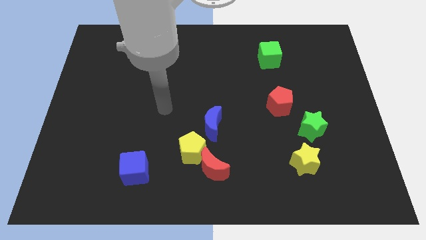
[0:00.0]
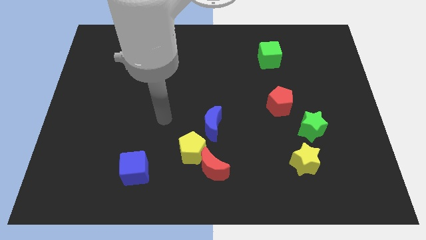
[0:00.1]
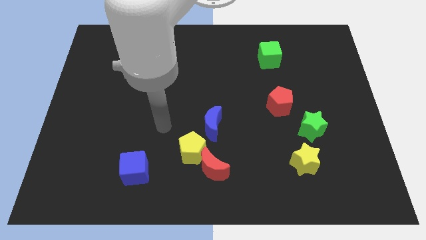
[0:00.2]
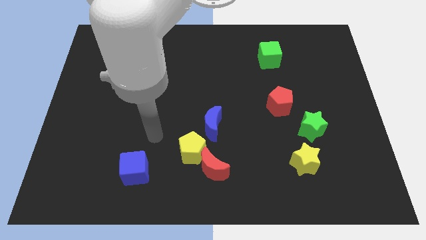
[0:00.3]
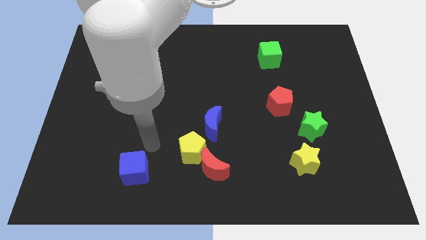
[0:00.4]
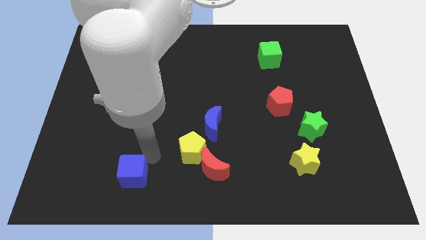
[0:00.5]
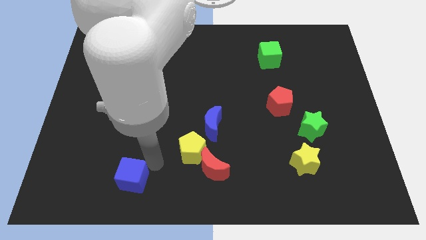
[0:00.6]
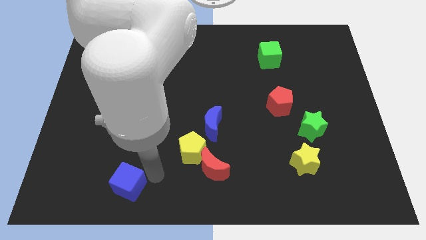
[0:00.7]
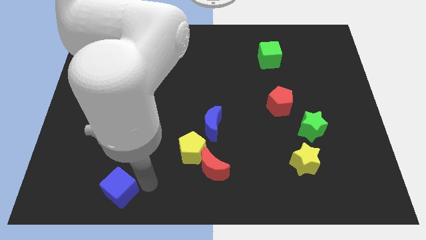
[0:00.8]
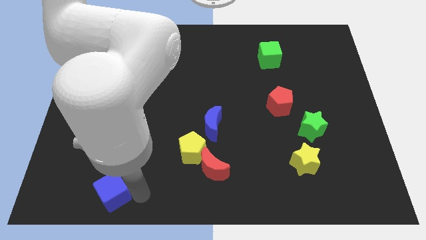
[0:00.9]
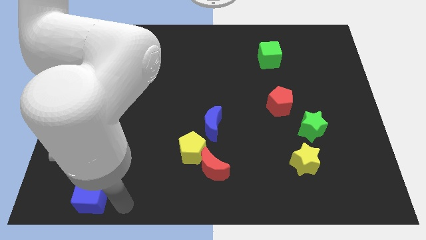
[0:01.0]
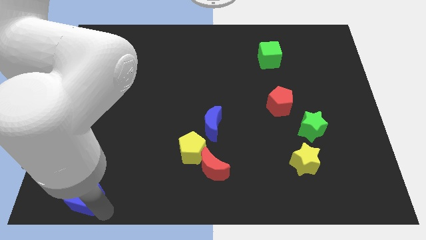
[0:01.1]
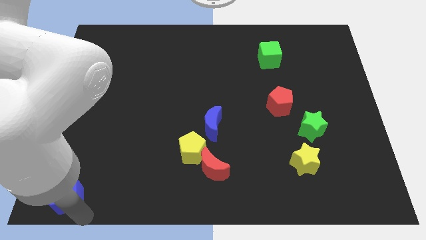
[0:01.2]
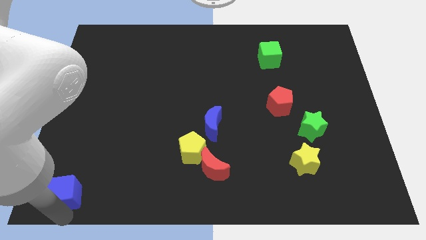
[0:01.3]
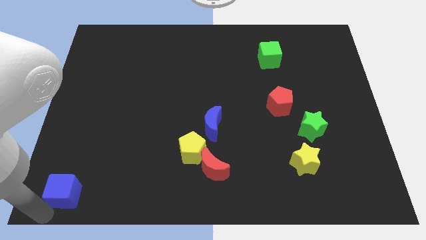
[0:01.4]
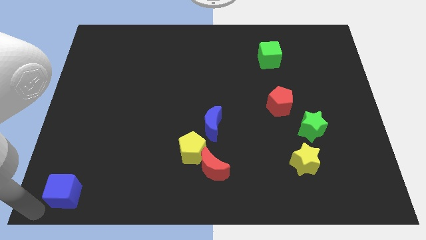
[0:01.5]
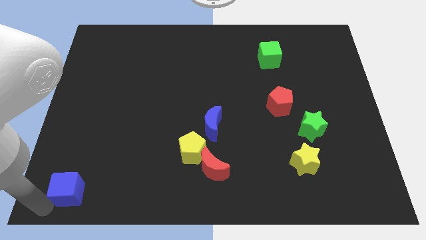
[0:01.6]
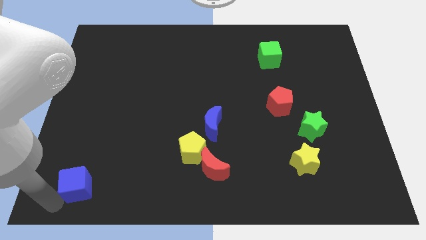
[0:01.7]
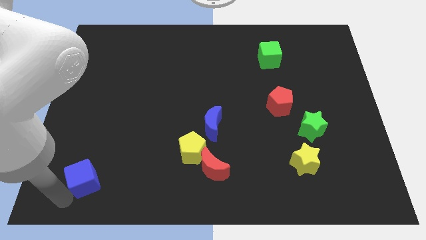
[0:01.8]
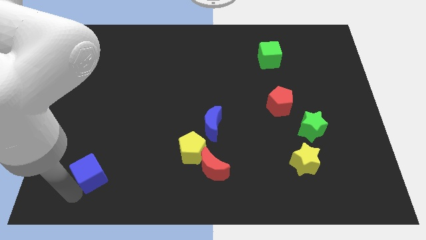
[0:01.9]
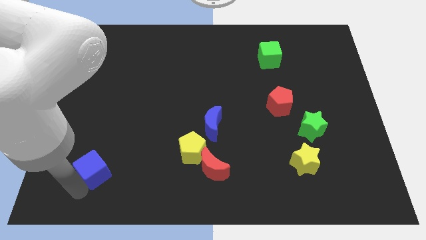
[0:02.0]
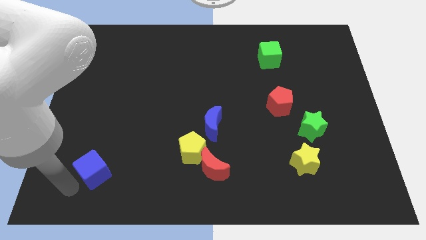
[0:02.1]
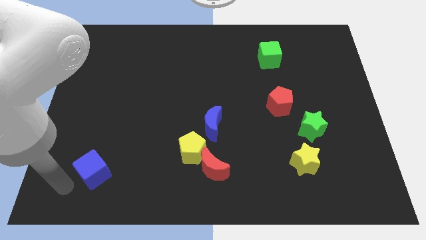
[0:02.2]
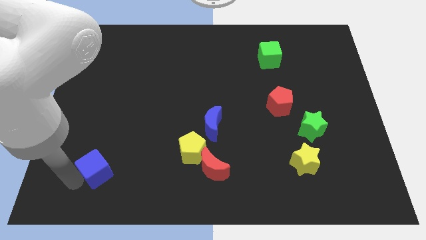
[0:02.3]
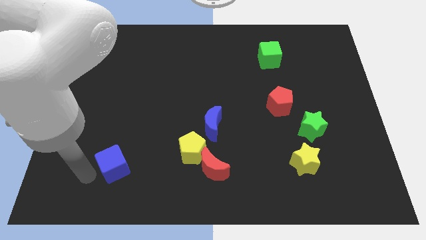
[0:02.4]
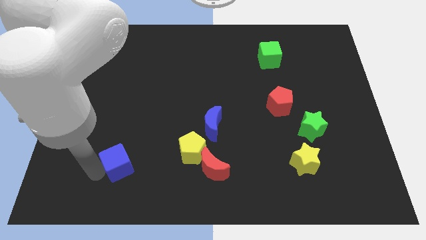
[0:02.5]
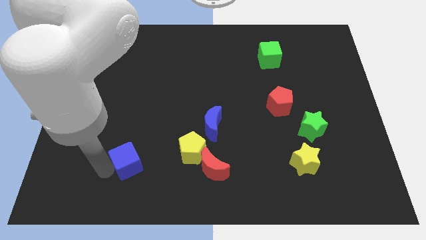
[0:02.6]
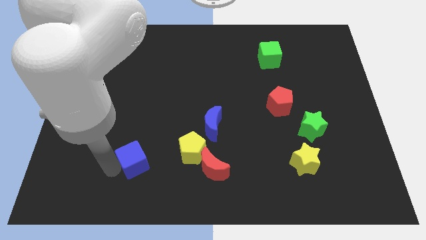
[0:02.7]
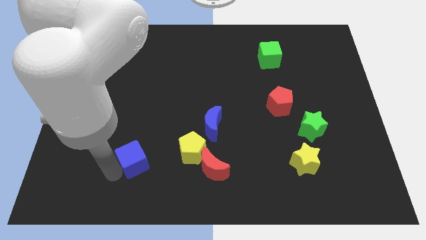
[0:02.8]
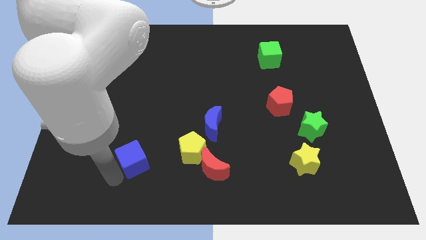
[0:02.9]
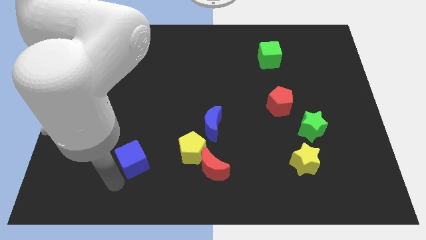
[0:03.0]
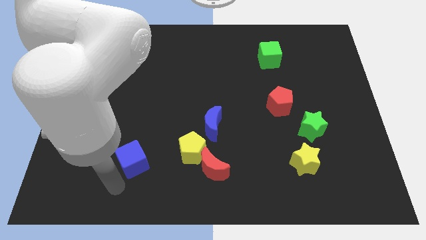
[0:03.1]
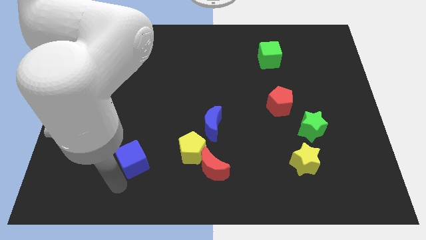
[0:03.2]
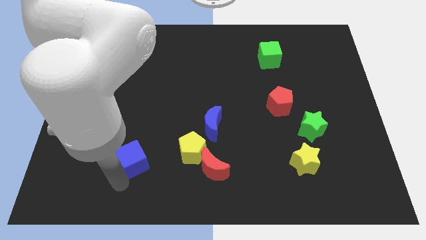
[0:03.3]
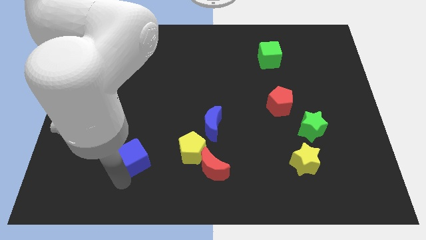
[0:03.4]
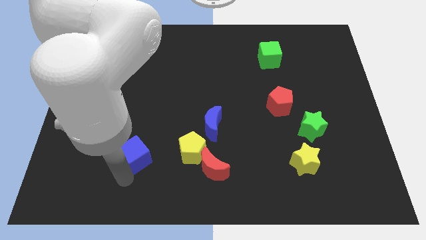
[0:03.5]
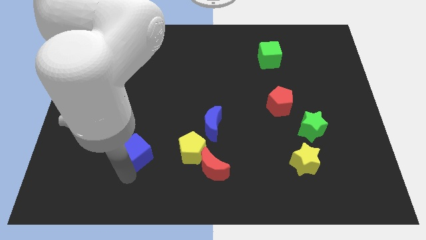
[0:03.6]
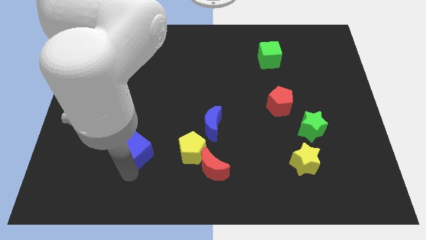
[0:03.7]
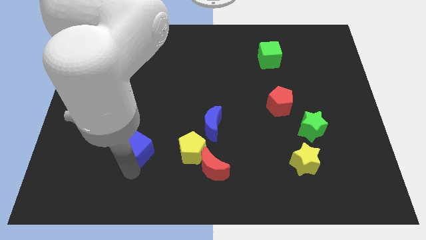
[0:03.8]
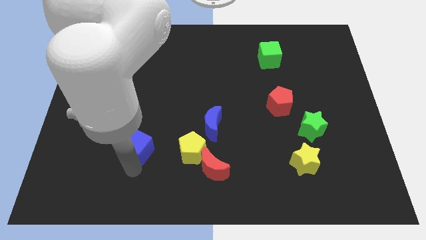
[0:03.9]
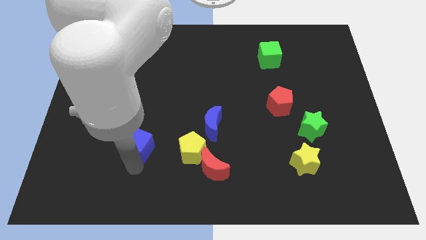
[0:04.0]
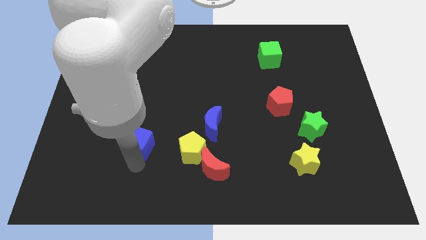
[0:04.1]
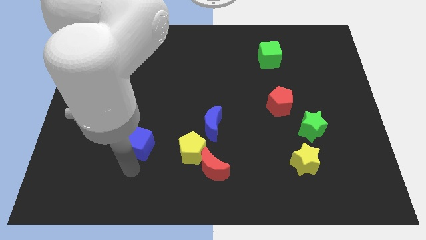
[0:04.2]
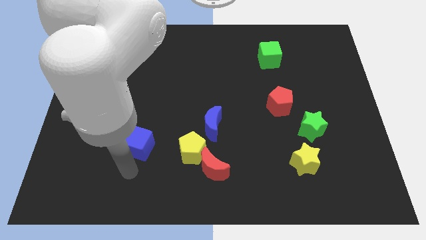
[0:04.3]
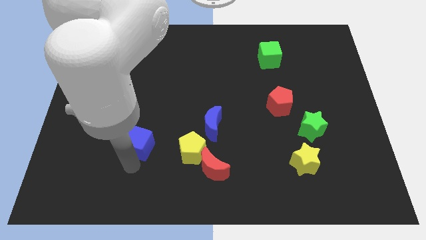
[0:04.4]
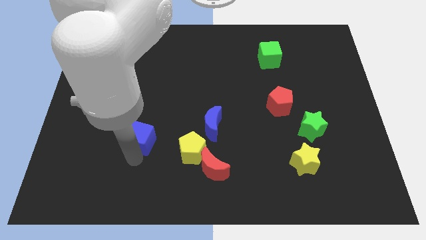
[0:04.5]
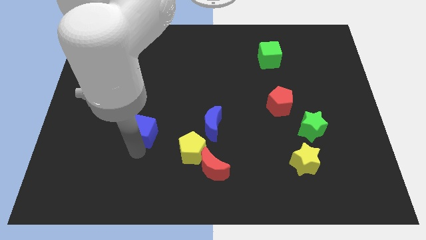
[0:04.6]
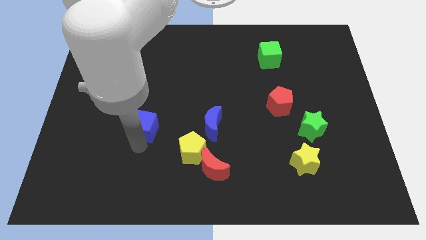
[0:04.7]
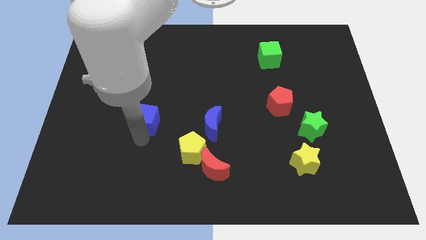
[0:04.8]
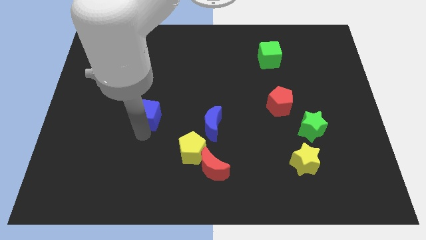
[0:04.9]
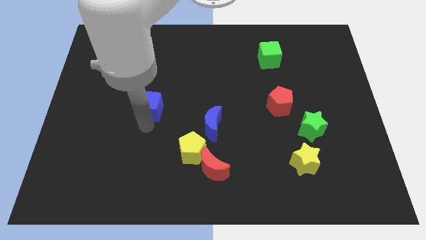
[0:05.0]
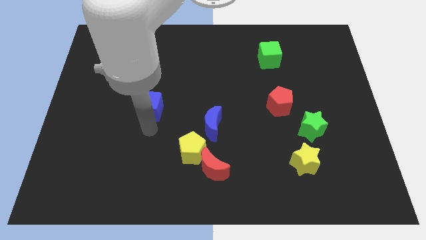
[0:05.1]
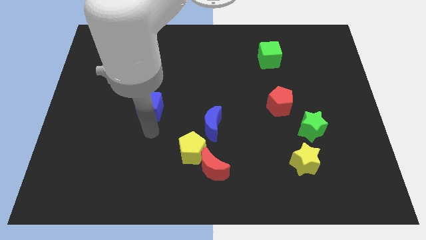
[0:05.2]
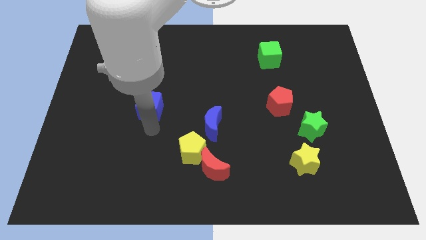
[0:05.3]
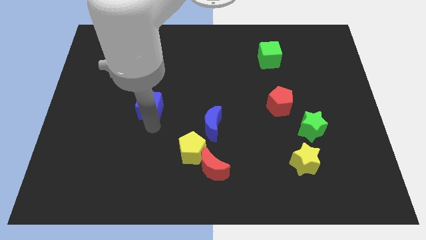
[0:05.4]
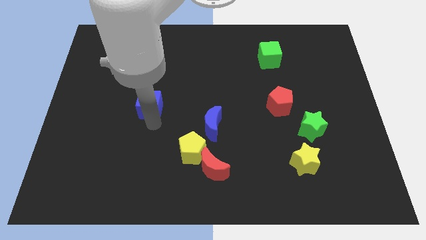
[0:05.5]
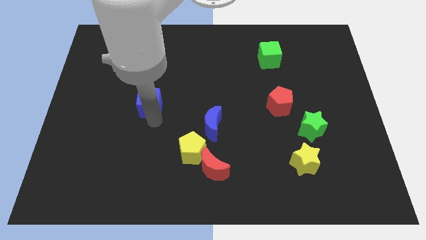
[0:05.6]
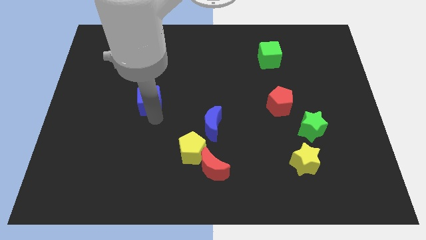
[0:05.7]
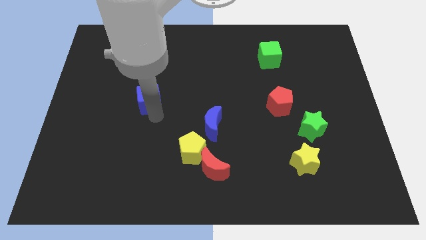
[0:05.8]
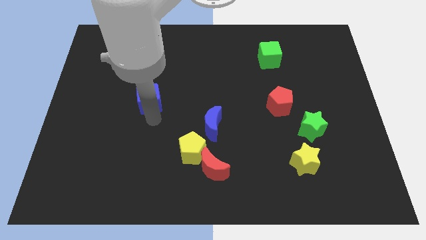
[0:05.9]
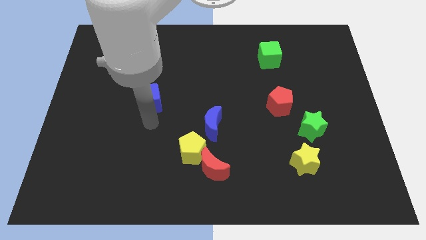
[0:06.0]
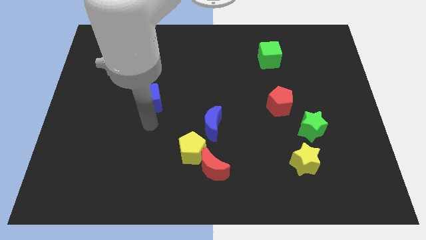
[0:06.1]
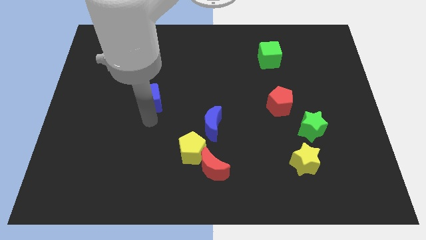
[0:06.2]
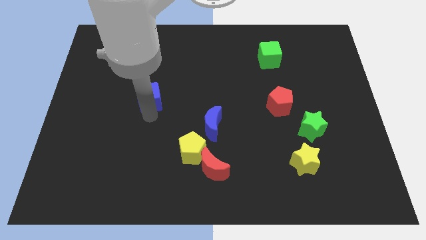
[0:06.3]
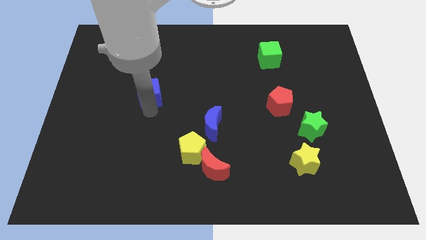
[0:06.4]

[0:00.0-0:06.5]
push the blue cube upwards

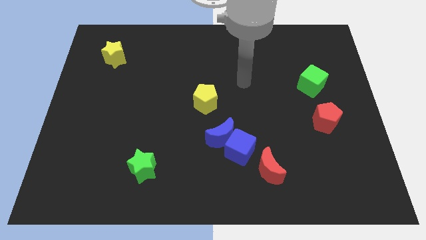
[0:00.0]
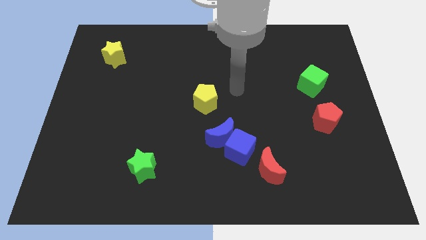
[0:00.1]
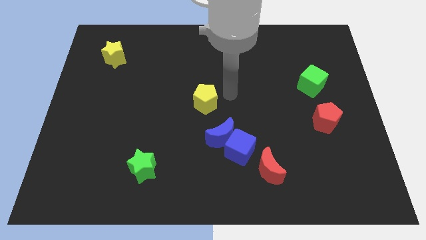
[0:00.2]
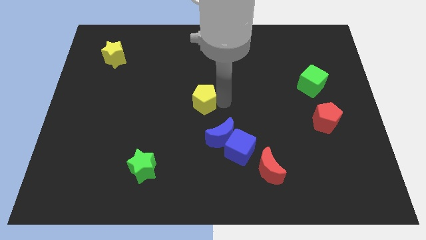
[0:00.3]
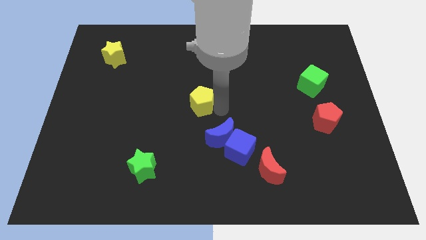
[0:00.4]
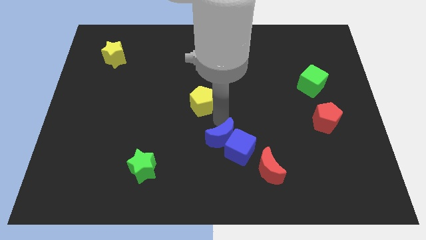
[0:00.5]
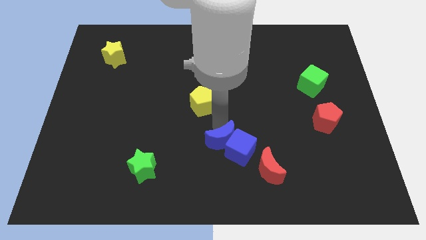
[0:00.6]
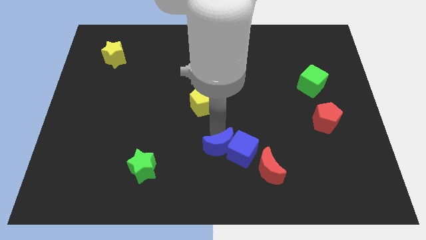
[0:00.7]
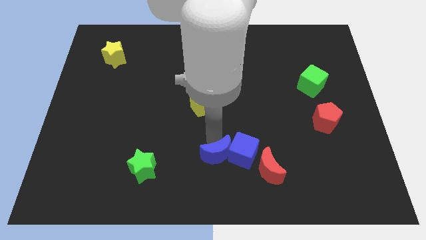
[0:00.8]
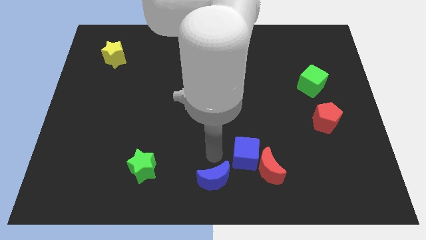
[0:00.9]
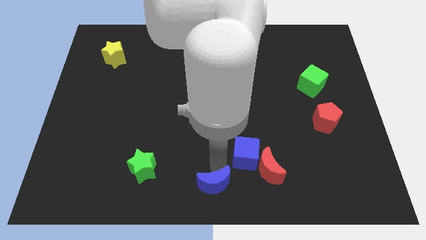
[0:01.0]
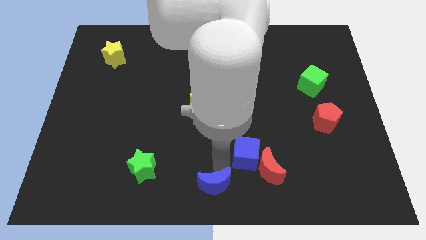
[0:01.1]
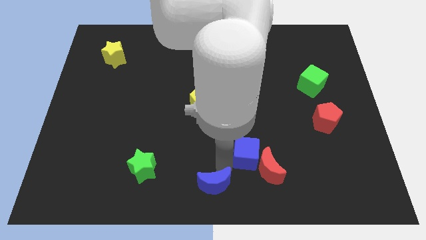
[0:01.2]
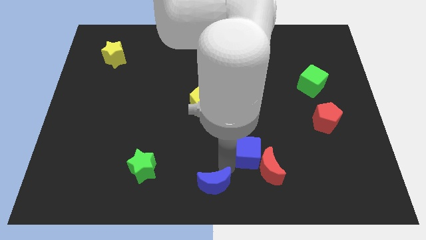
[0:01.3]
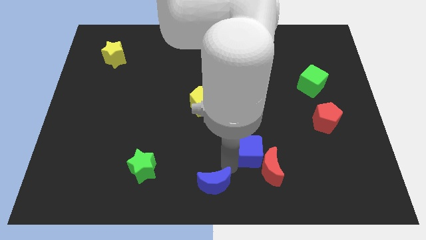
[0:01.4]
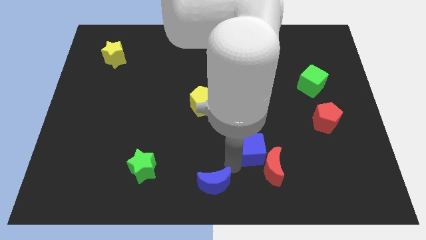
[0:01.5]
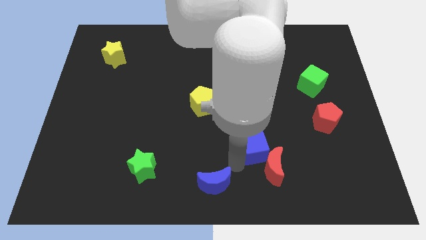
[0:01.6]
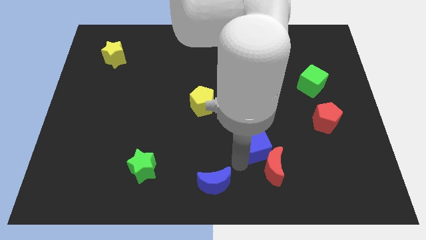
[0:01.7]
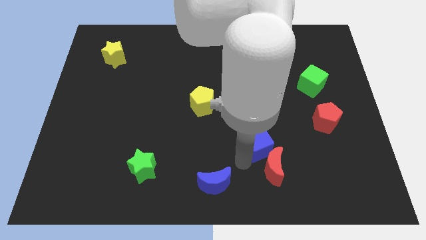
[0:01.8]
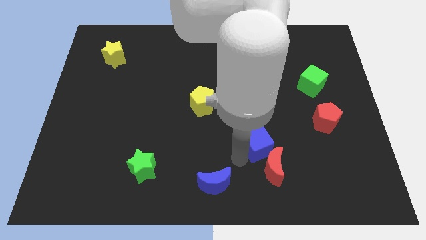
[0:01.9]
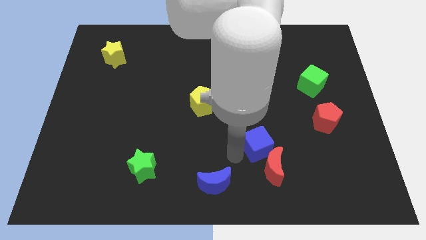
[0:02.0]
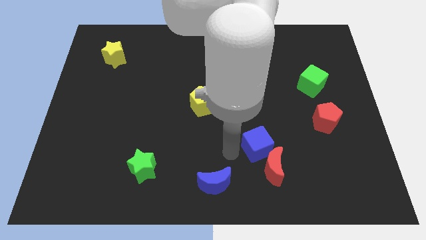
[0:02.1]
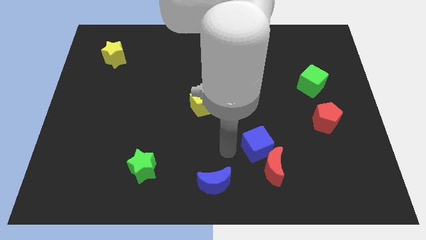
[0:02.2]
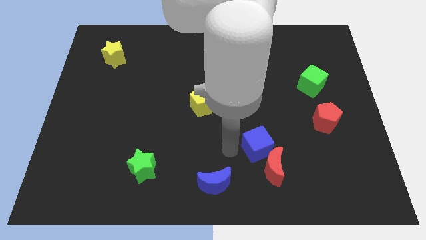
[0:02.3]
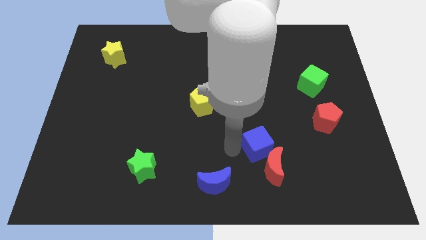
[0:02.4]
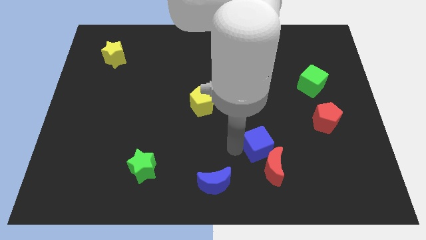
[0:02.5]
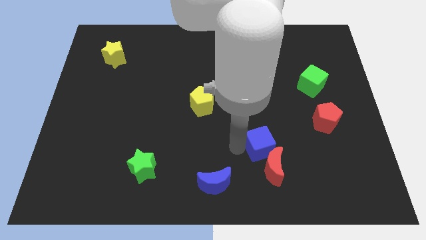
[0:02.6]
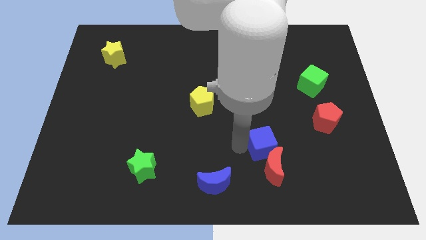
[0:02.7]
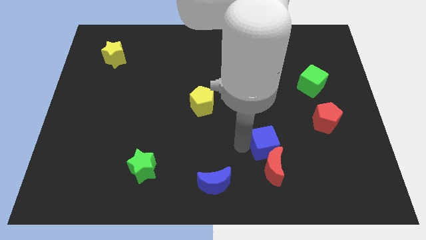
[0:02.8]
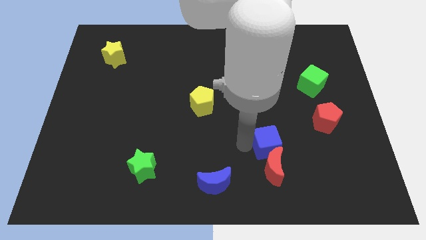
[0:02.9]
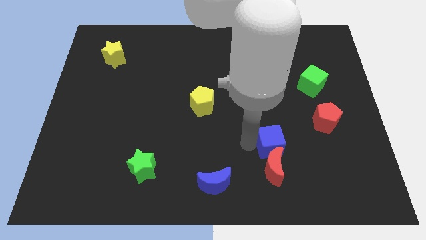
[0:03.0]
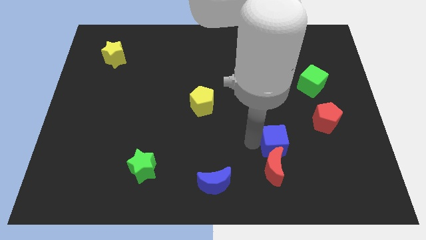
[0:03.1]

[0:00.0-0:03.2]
move the blue cube a bit to the right
